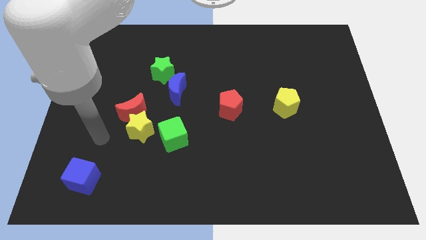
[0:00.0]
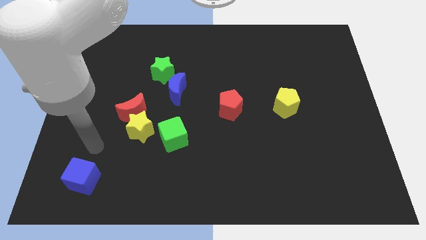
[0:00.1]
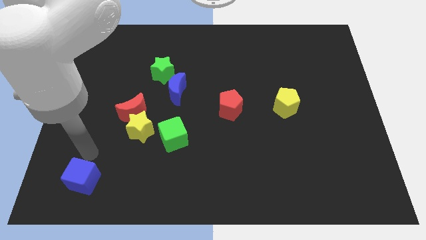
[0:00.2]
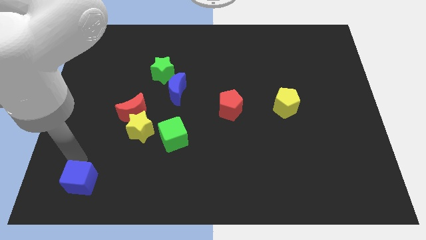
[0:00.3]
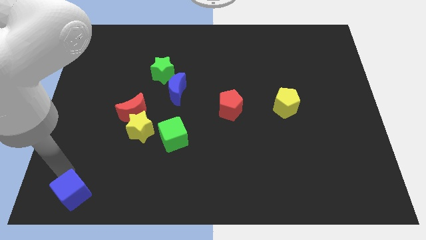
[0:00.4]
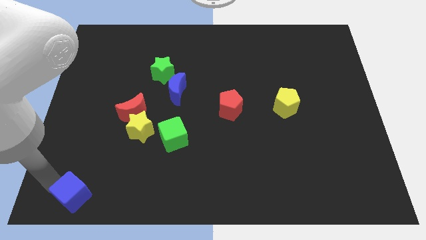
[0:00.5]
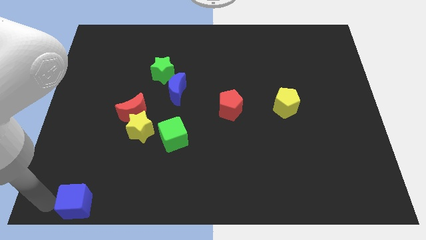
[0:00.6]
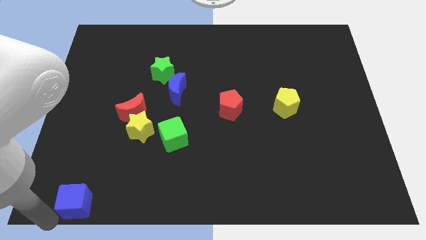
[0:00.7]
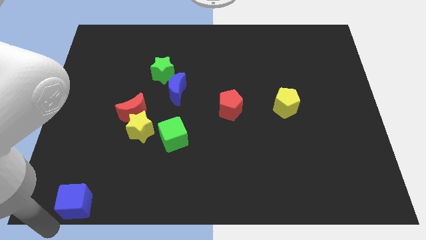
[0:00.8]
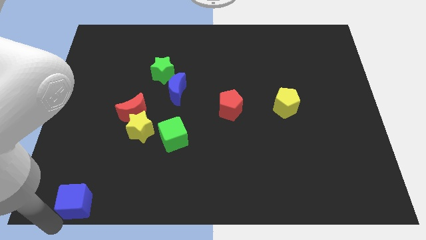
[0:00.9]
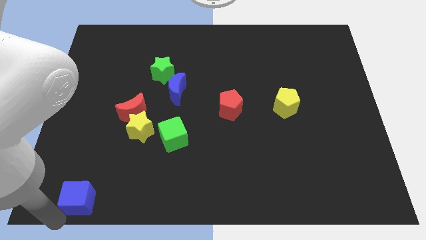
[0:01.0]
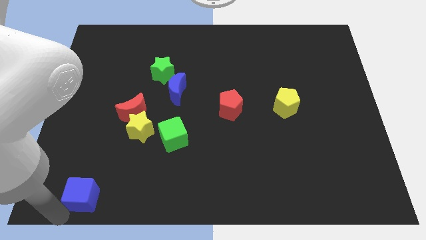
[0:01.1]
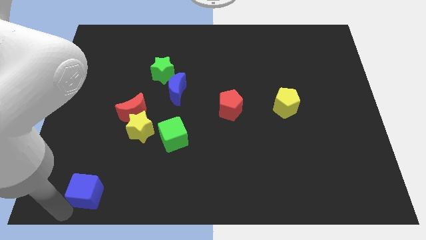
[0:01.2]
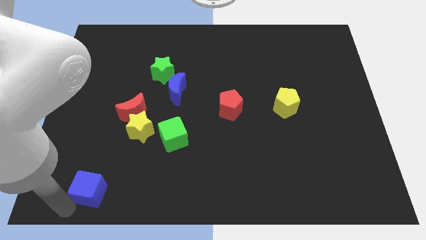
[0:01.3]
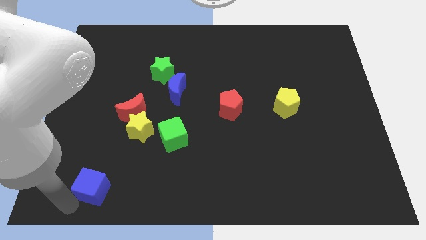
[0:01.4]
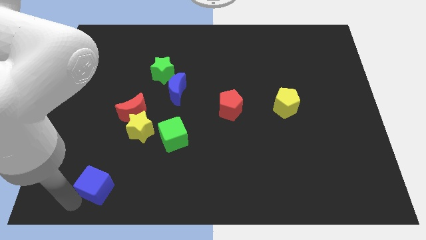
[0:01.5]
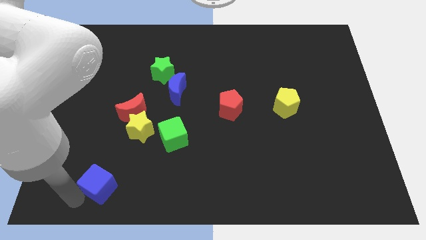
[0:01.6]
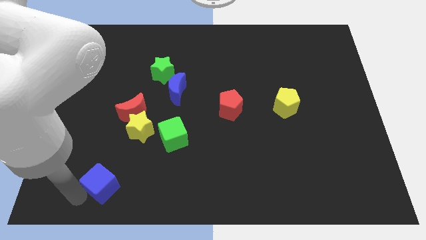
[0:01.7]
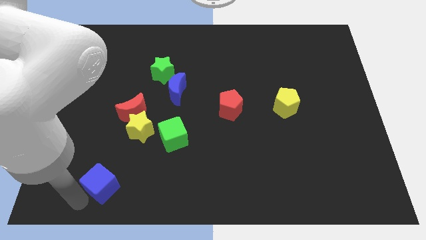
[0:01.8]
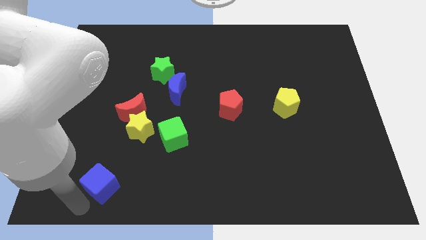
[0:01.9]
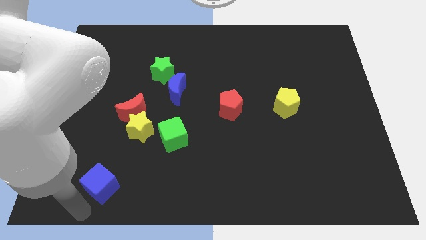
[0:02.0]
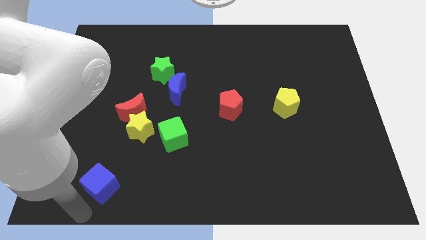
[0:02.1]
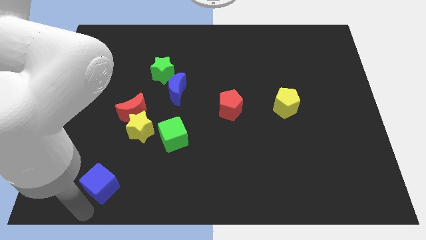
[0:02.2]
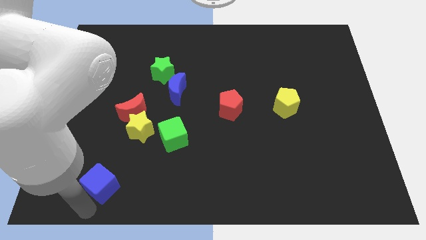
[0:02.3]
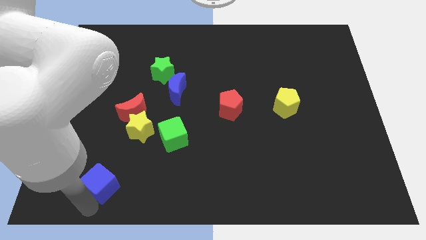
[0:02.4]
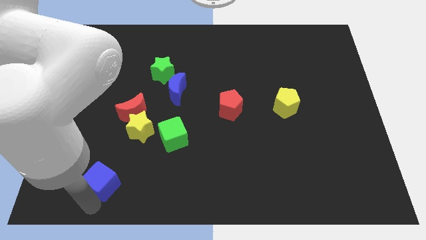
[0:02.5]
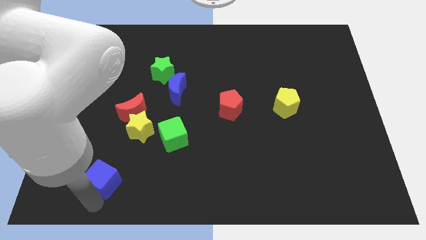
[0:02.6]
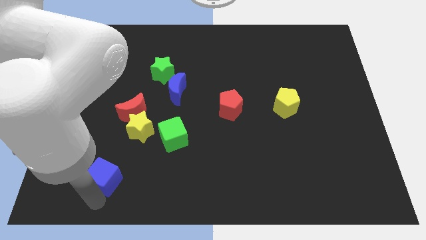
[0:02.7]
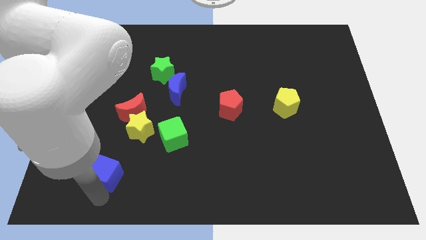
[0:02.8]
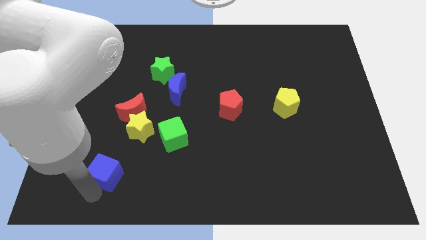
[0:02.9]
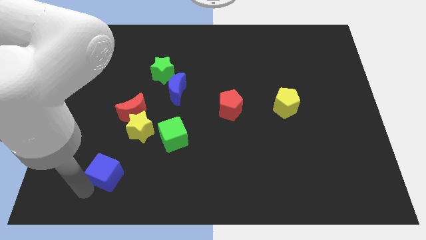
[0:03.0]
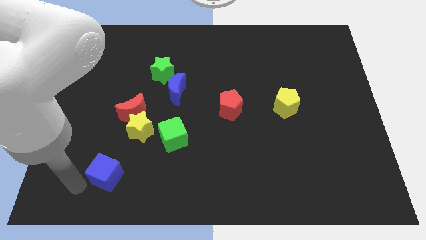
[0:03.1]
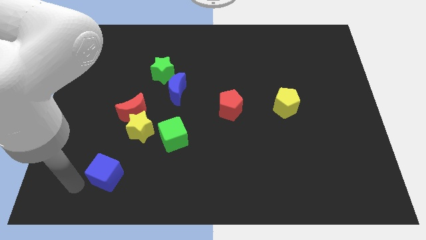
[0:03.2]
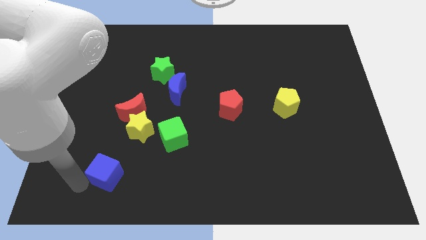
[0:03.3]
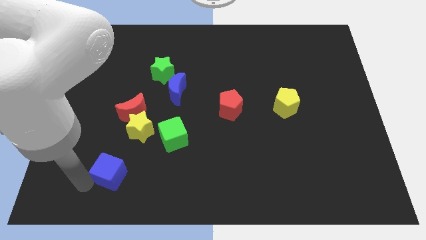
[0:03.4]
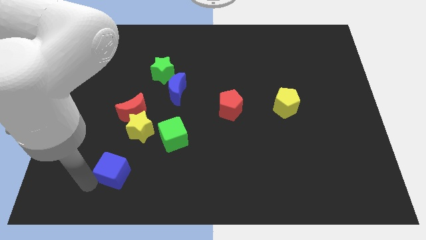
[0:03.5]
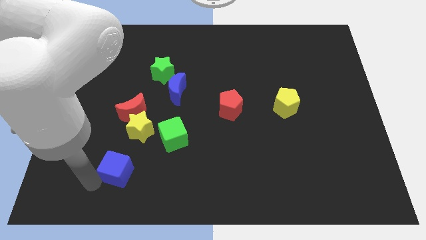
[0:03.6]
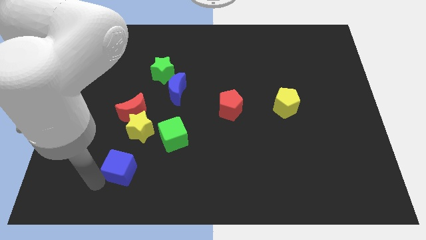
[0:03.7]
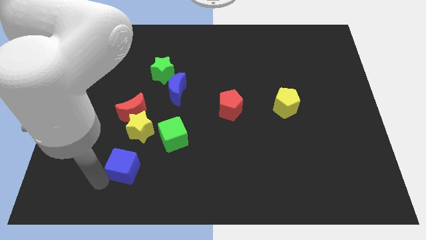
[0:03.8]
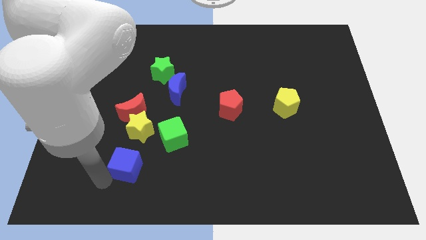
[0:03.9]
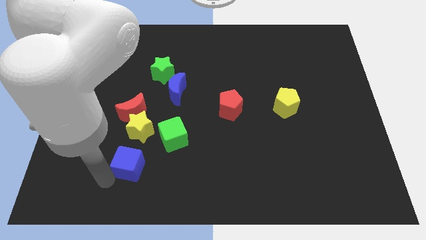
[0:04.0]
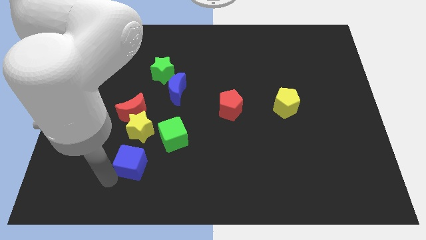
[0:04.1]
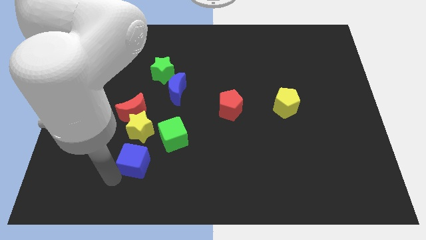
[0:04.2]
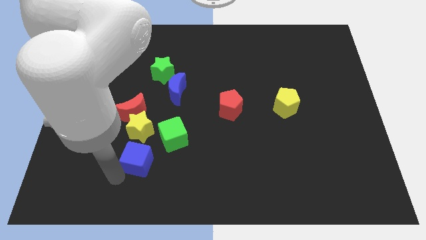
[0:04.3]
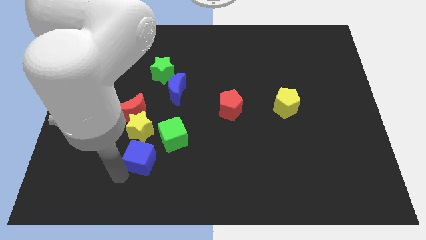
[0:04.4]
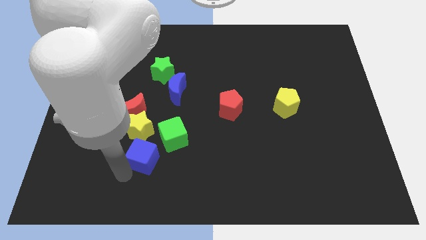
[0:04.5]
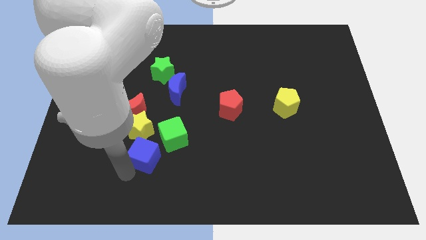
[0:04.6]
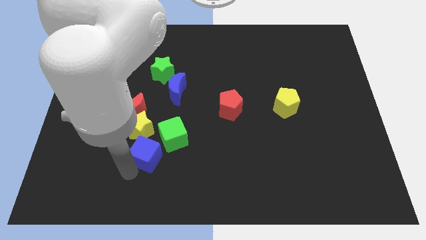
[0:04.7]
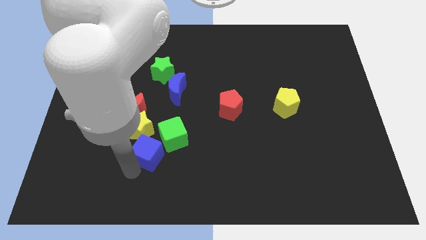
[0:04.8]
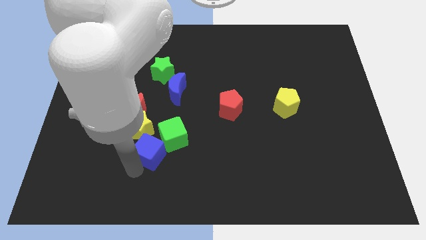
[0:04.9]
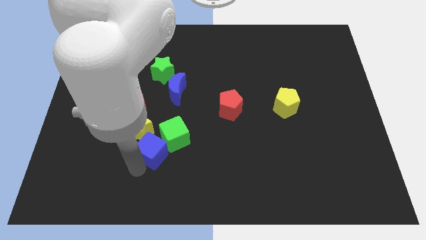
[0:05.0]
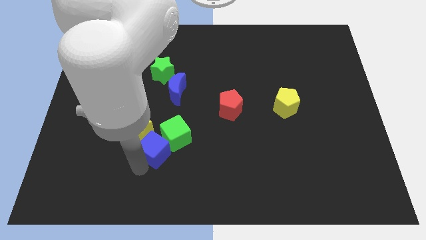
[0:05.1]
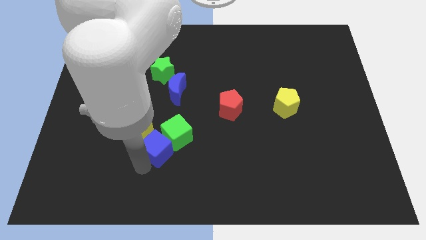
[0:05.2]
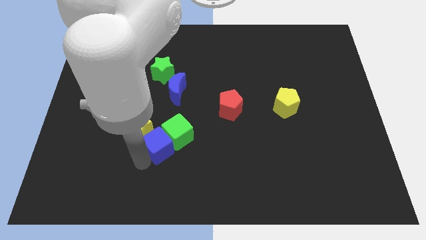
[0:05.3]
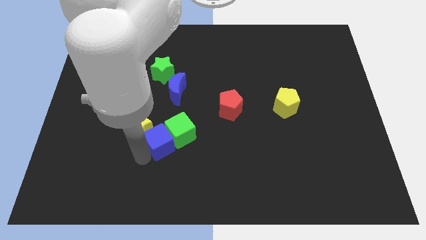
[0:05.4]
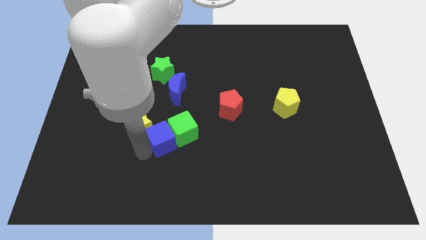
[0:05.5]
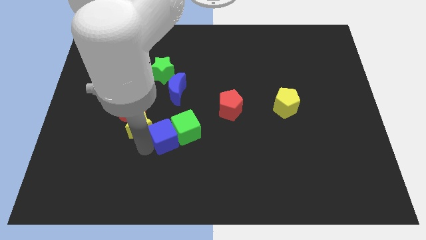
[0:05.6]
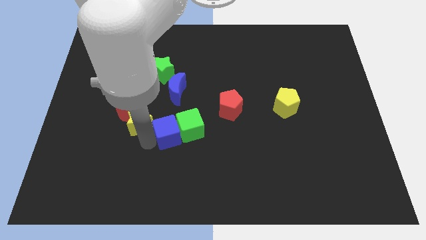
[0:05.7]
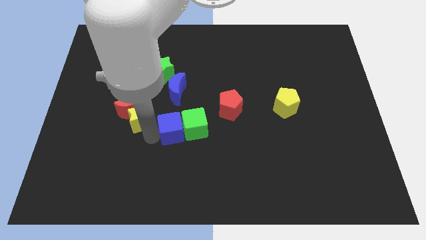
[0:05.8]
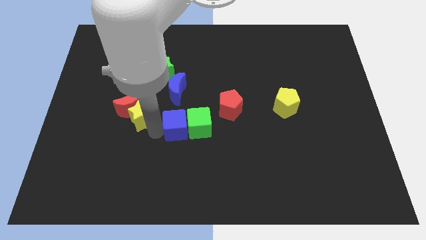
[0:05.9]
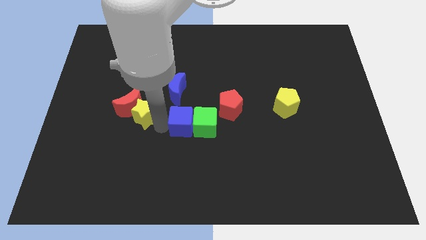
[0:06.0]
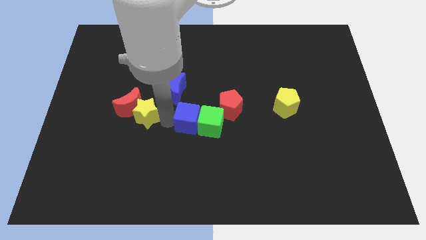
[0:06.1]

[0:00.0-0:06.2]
move the blue cube diagonally down and to the left of the red pentagon
